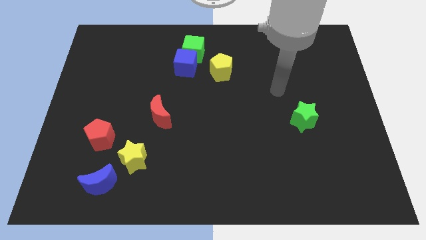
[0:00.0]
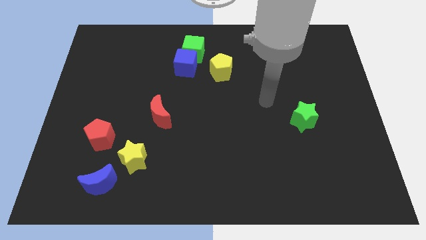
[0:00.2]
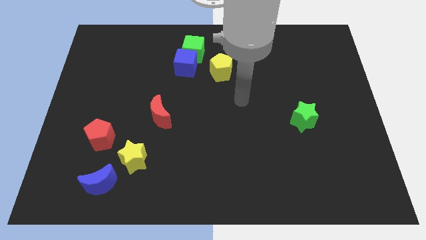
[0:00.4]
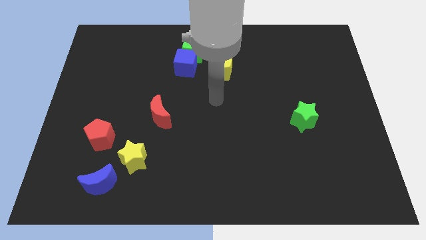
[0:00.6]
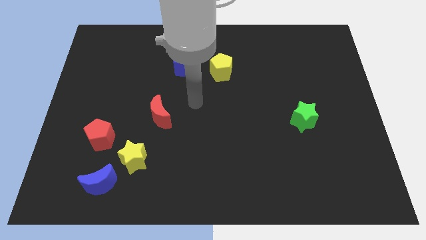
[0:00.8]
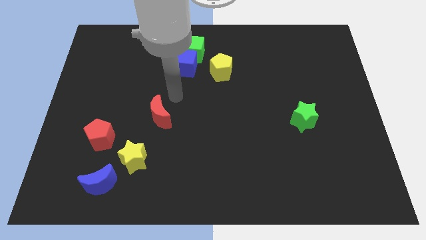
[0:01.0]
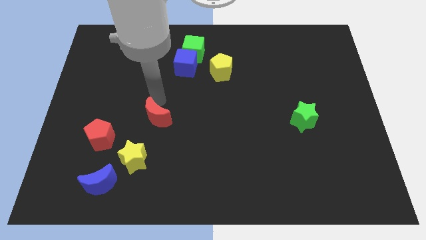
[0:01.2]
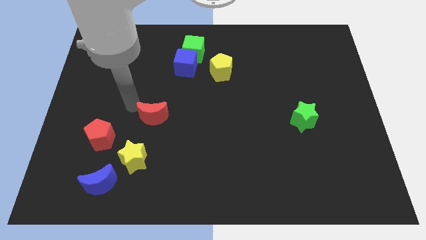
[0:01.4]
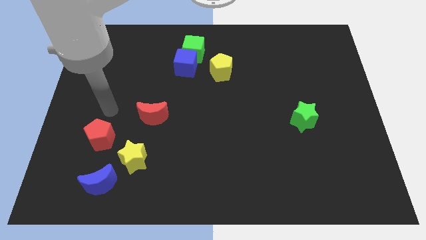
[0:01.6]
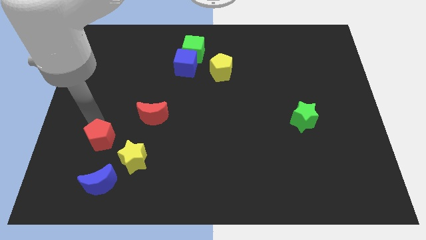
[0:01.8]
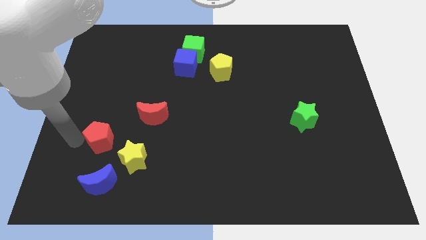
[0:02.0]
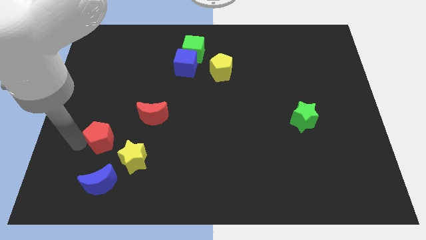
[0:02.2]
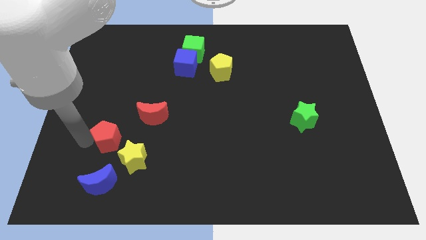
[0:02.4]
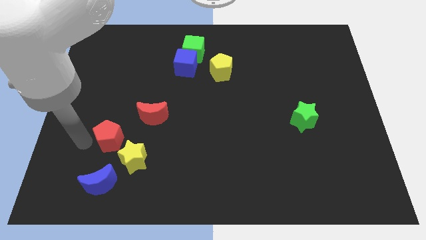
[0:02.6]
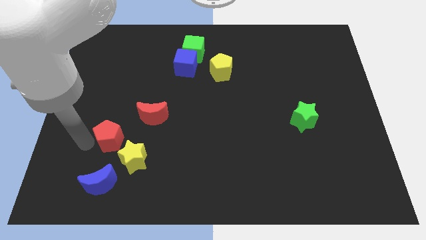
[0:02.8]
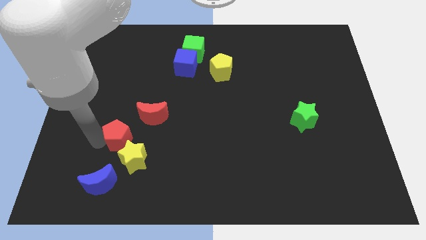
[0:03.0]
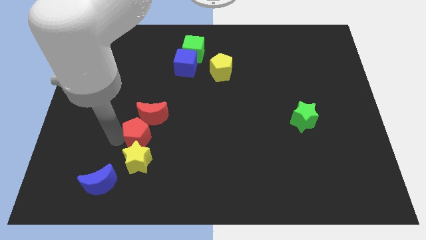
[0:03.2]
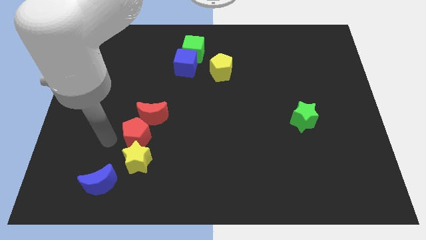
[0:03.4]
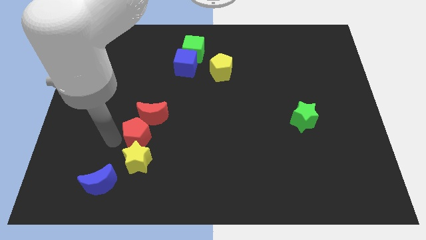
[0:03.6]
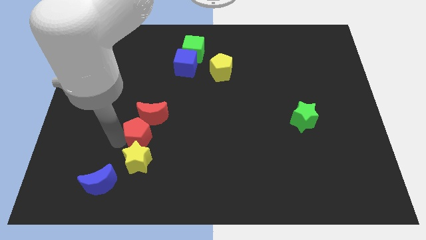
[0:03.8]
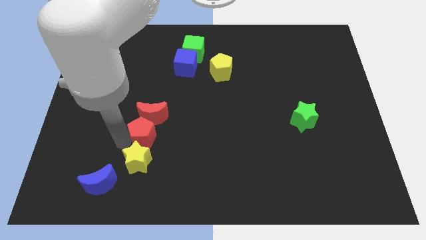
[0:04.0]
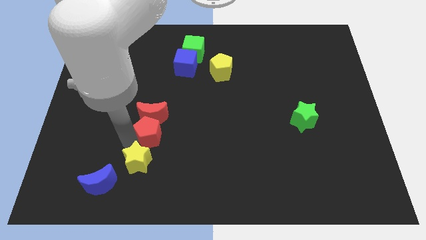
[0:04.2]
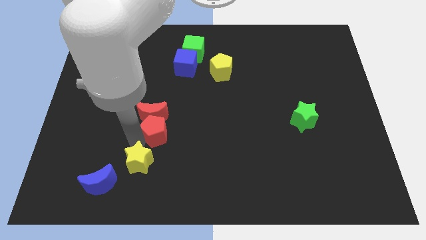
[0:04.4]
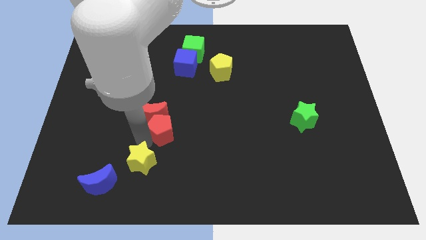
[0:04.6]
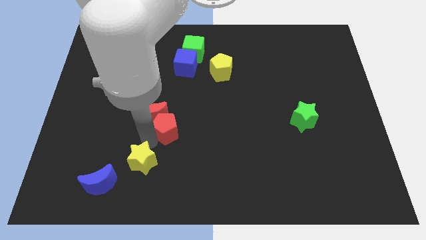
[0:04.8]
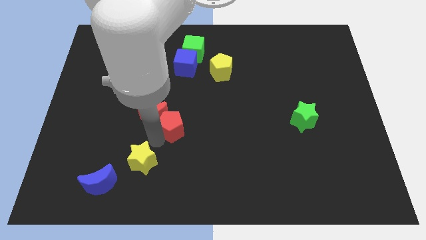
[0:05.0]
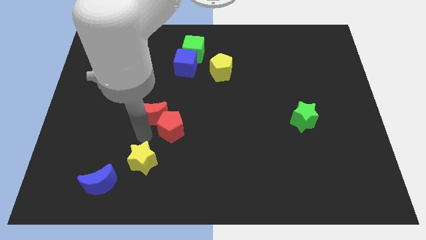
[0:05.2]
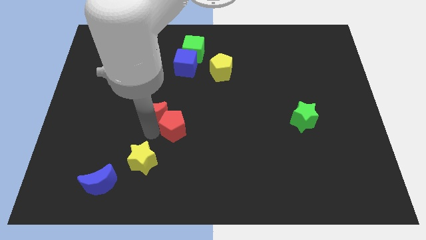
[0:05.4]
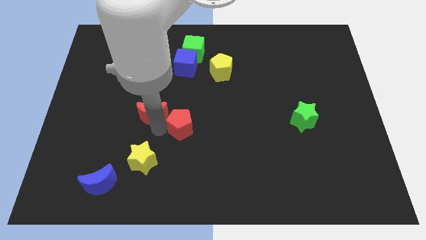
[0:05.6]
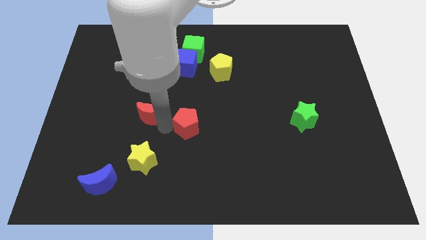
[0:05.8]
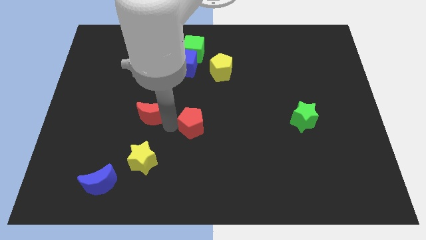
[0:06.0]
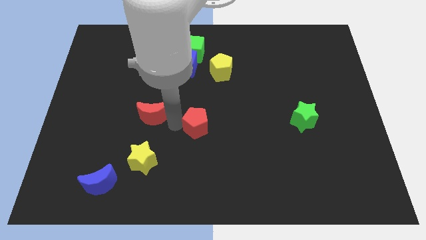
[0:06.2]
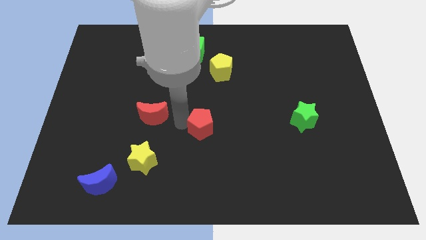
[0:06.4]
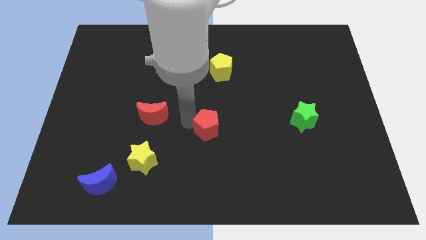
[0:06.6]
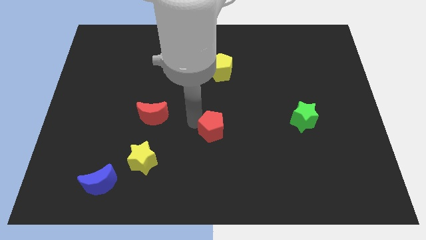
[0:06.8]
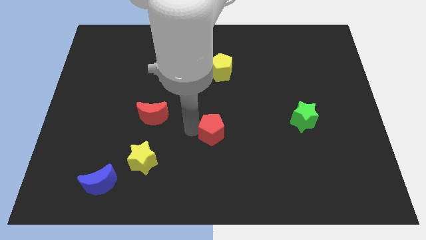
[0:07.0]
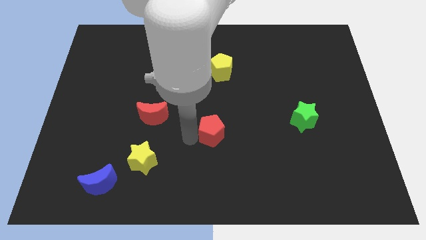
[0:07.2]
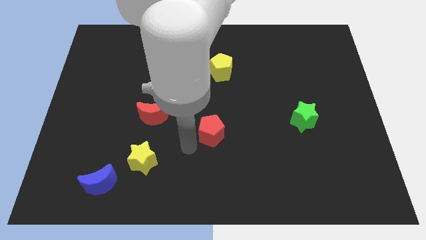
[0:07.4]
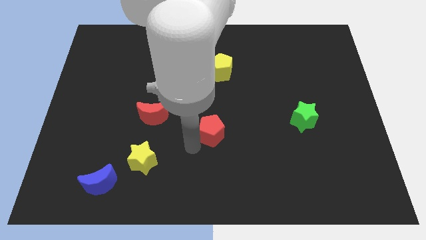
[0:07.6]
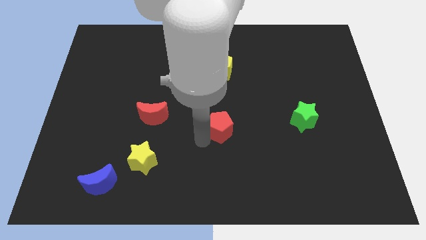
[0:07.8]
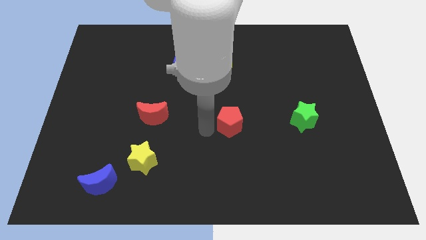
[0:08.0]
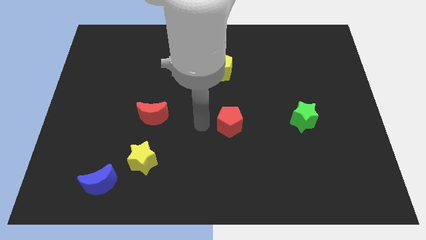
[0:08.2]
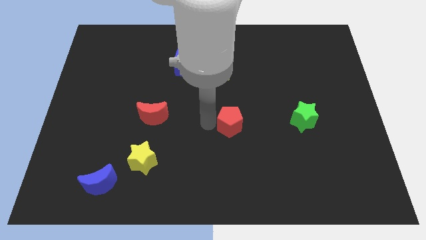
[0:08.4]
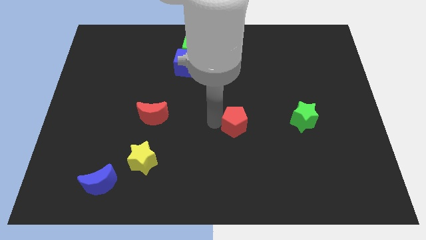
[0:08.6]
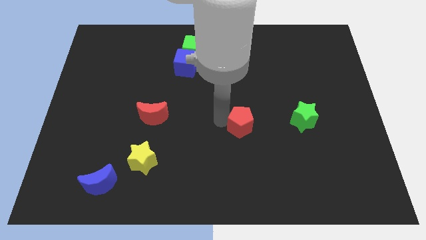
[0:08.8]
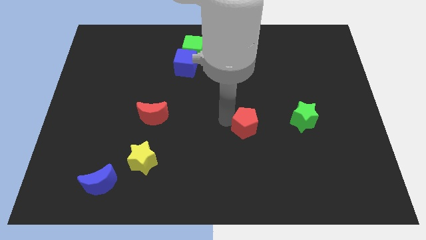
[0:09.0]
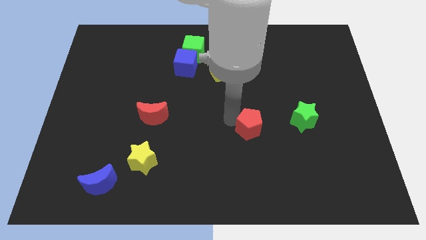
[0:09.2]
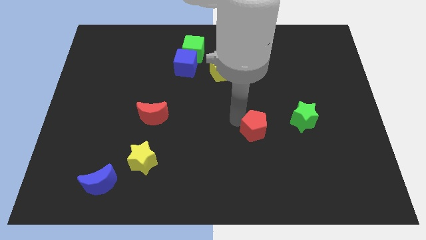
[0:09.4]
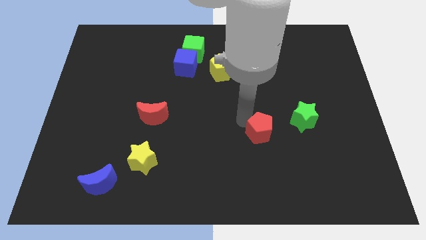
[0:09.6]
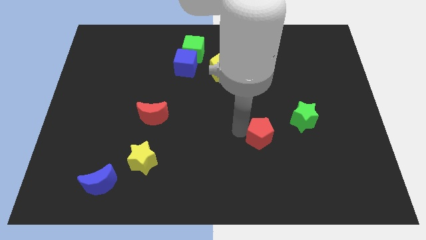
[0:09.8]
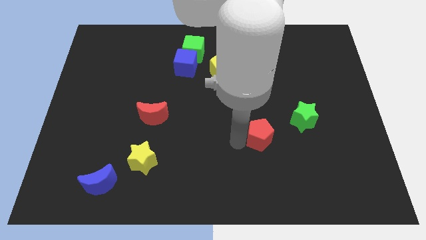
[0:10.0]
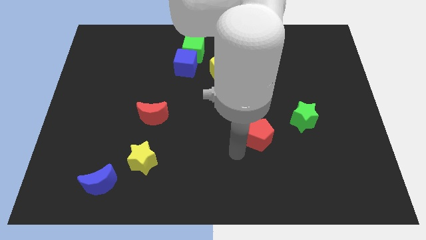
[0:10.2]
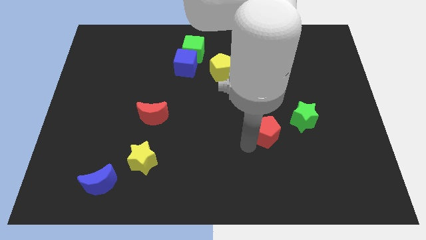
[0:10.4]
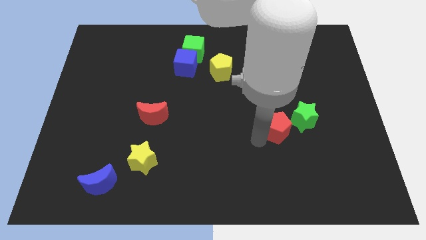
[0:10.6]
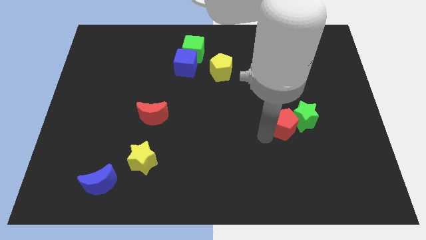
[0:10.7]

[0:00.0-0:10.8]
move the red pentagon towards the green star

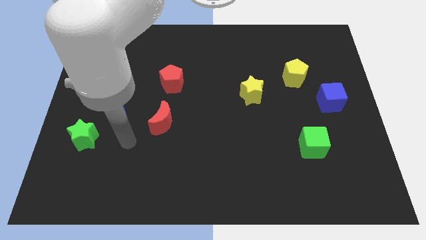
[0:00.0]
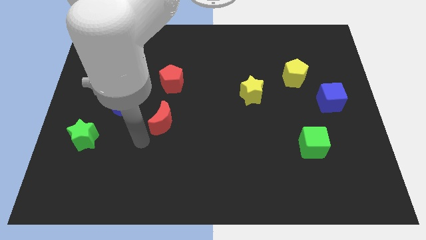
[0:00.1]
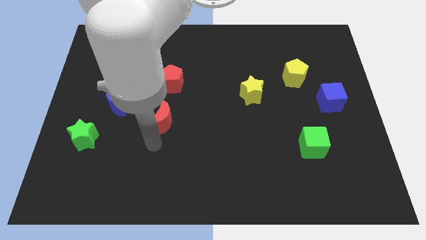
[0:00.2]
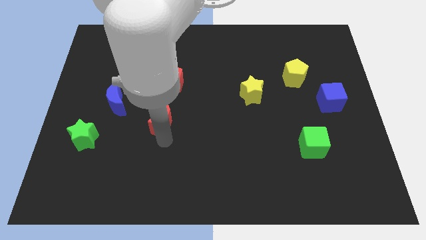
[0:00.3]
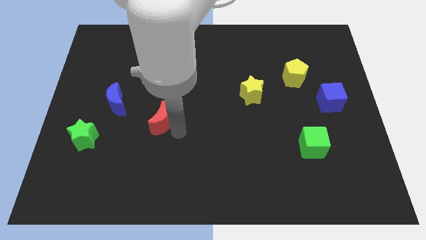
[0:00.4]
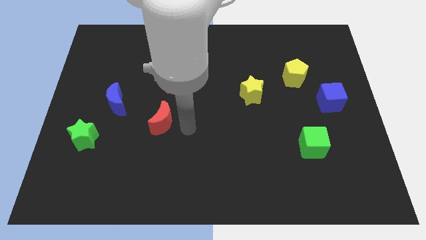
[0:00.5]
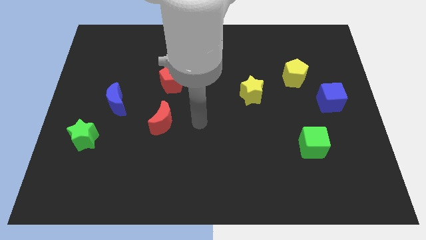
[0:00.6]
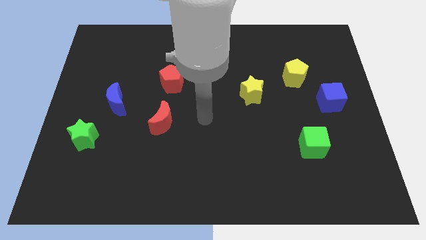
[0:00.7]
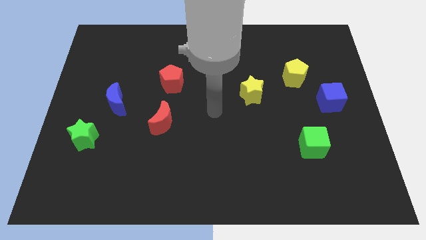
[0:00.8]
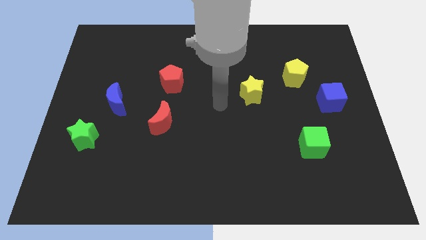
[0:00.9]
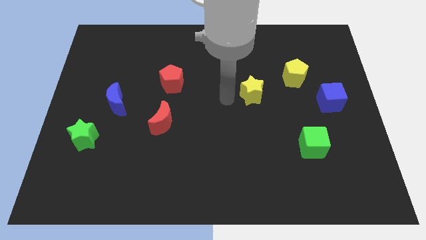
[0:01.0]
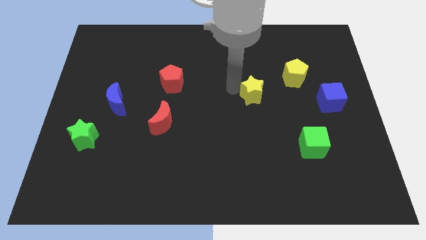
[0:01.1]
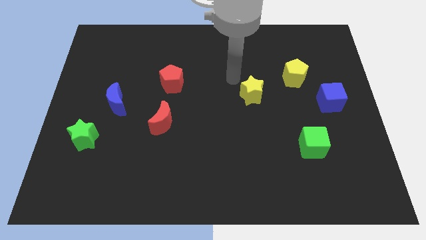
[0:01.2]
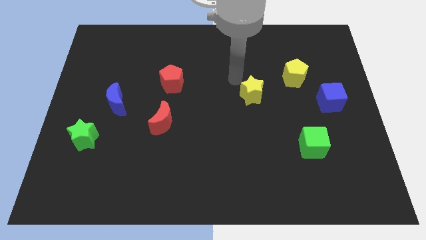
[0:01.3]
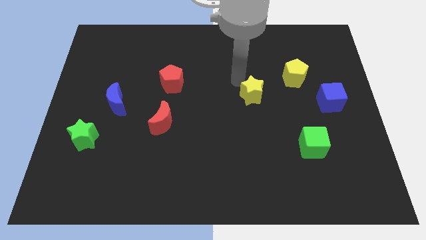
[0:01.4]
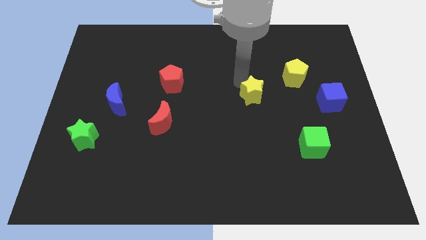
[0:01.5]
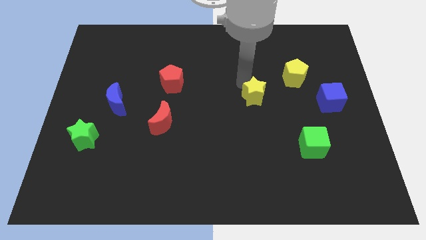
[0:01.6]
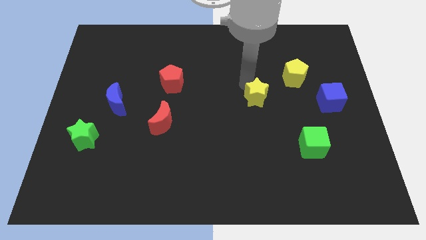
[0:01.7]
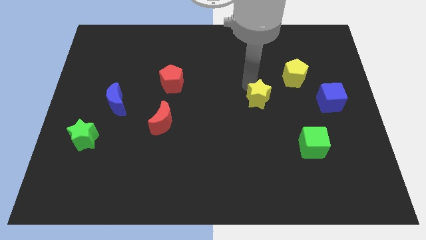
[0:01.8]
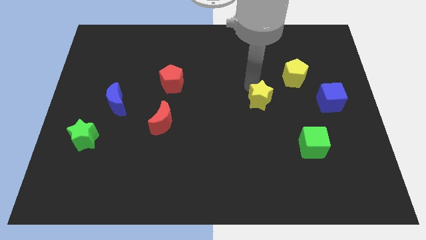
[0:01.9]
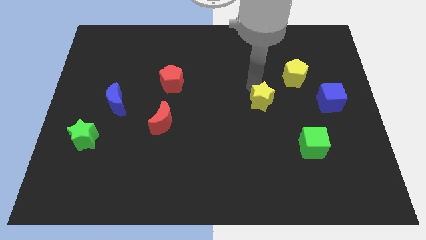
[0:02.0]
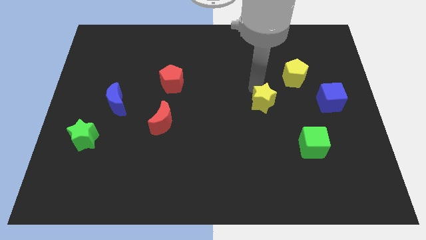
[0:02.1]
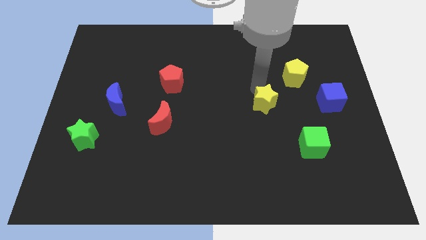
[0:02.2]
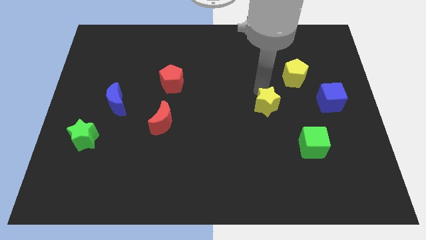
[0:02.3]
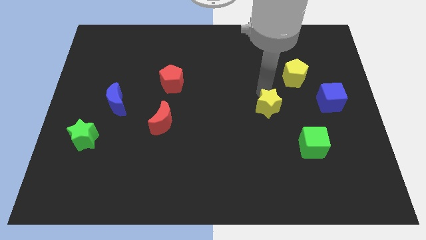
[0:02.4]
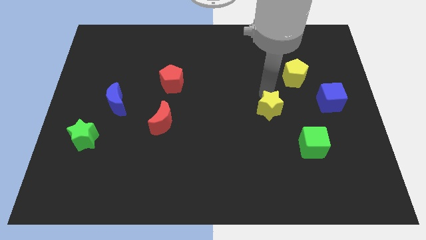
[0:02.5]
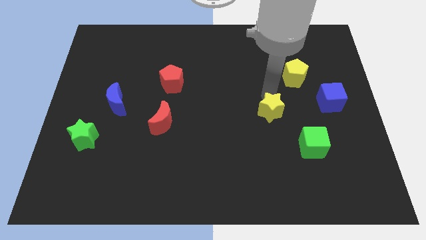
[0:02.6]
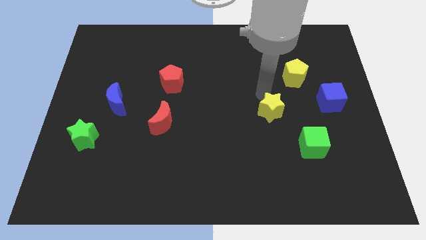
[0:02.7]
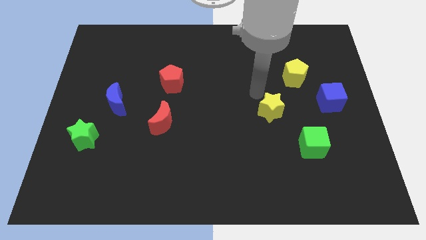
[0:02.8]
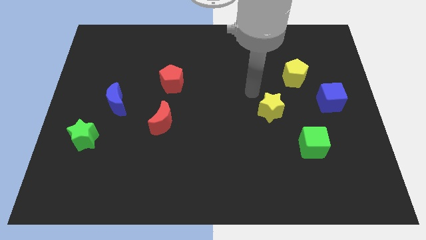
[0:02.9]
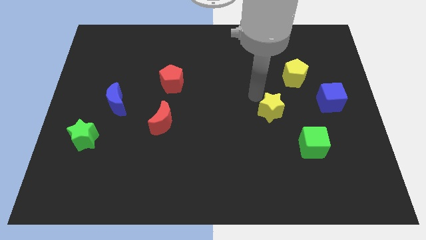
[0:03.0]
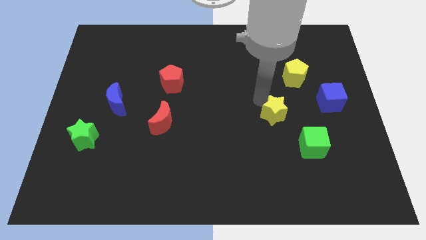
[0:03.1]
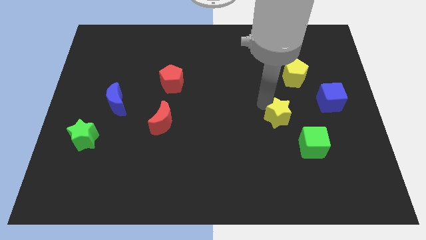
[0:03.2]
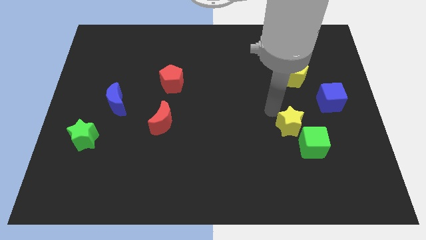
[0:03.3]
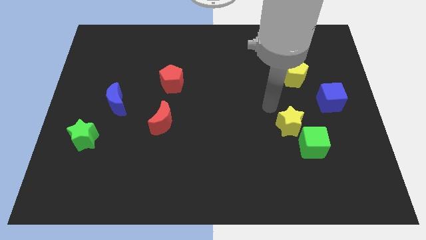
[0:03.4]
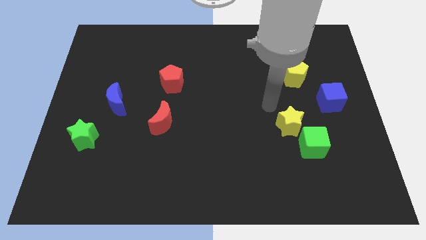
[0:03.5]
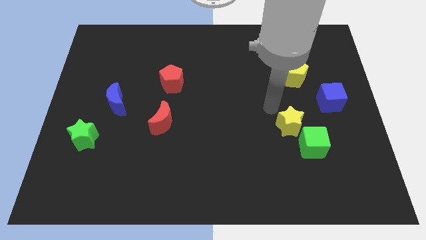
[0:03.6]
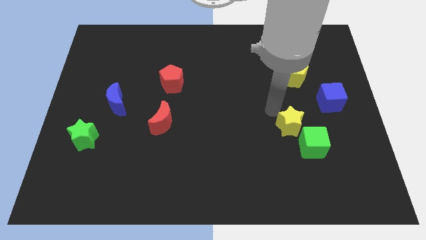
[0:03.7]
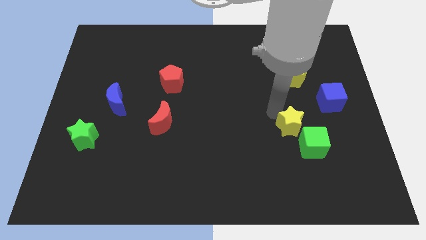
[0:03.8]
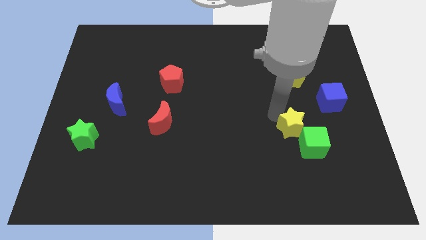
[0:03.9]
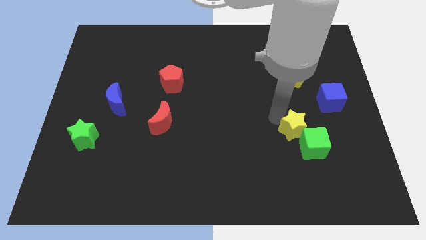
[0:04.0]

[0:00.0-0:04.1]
put the yellow star next to the green cube
